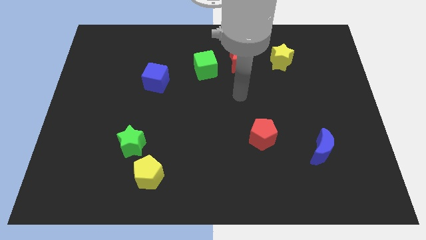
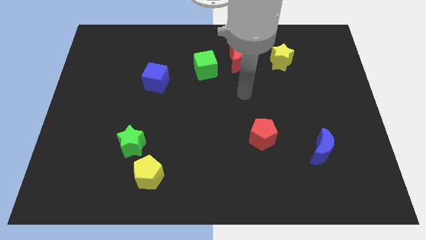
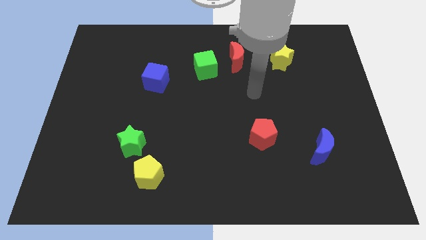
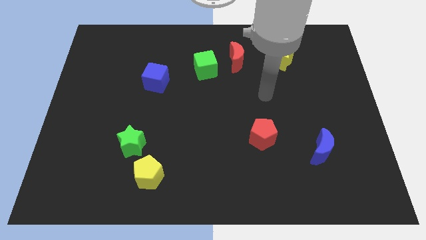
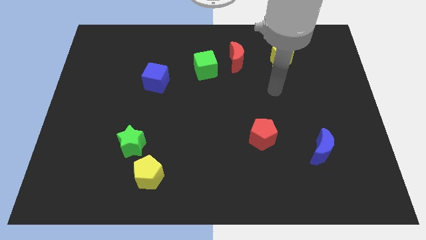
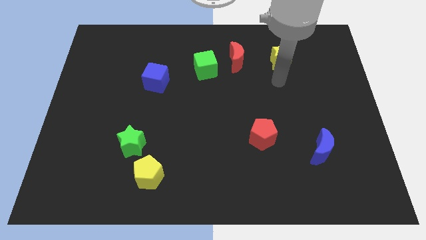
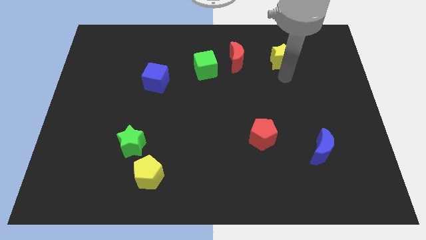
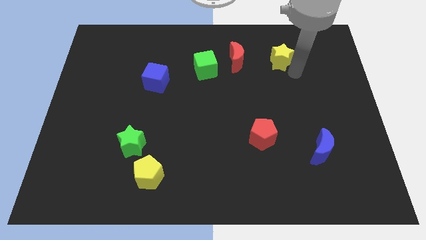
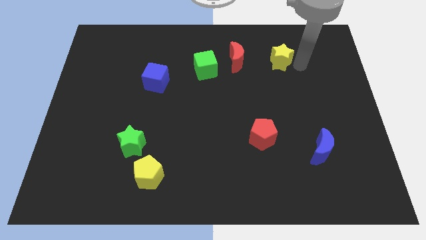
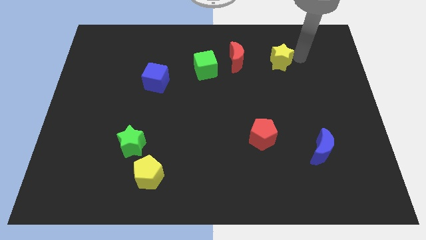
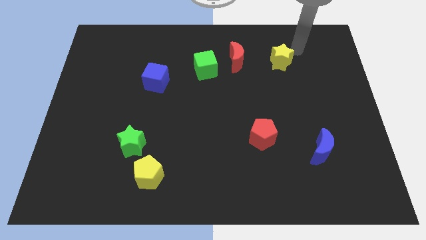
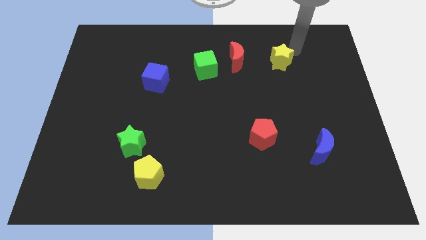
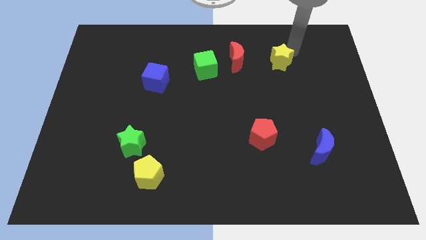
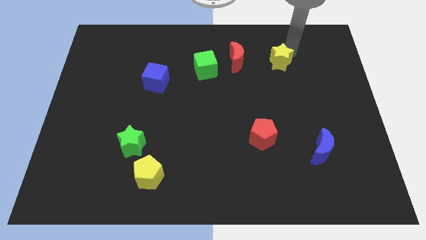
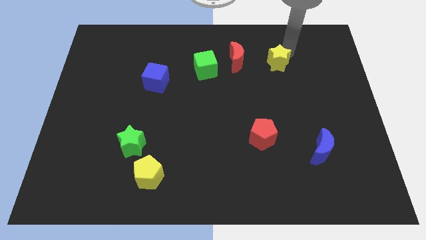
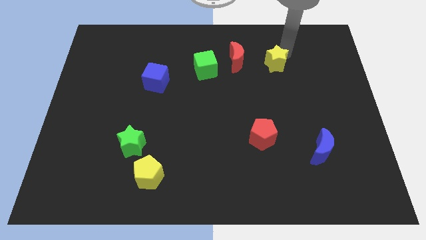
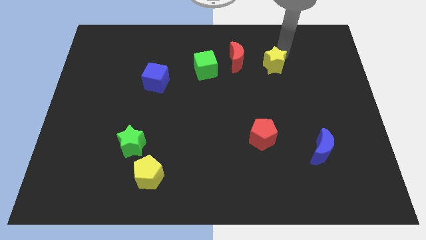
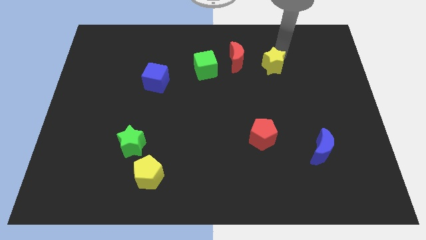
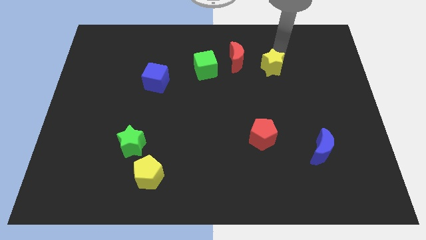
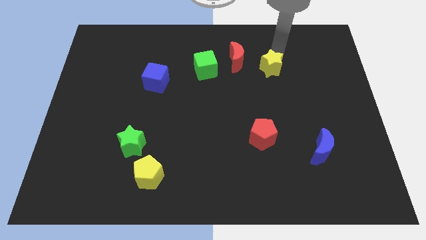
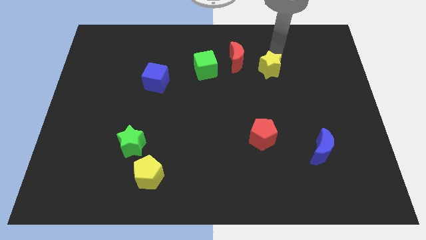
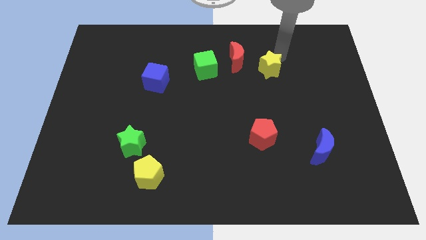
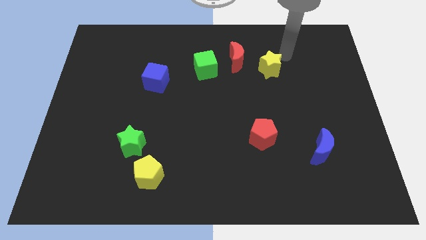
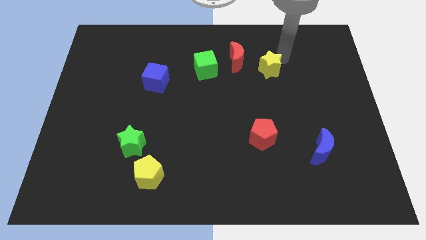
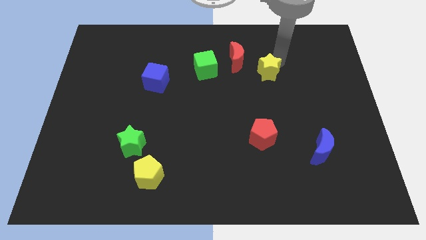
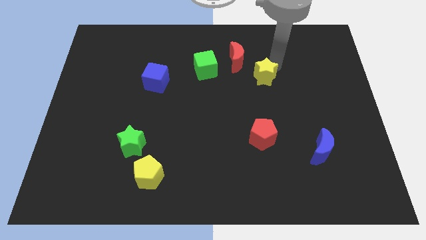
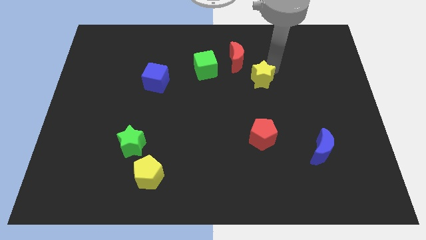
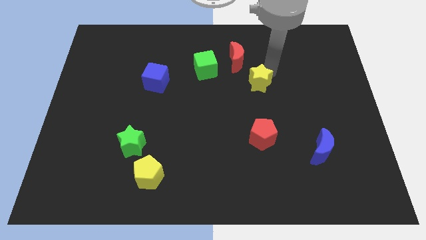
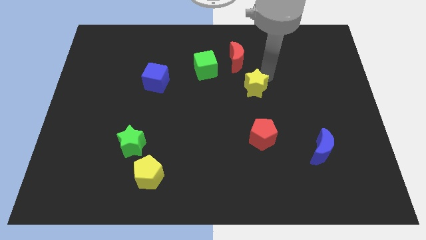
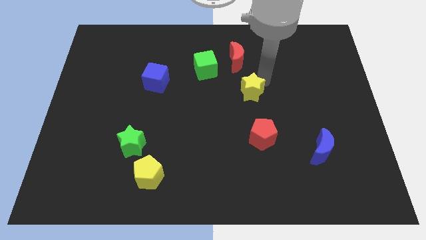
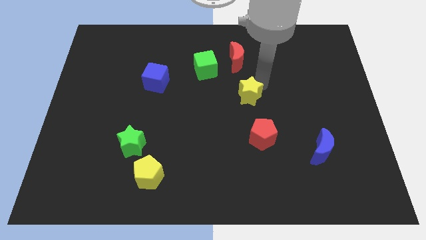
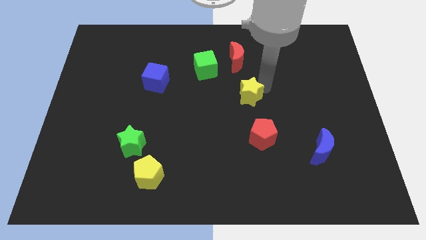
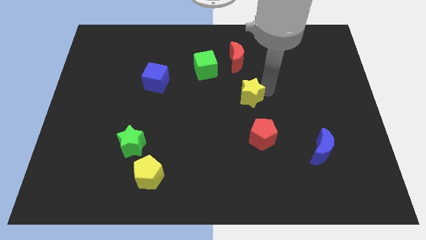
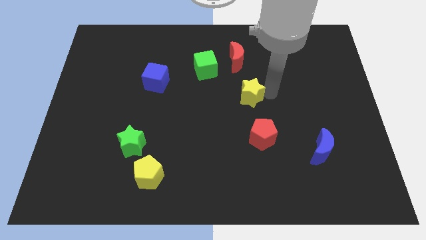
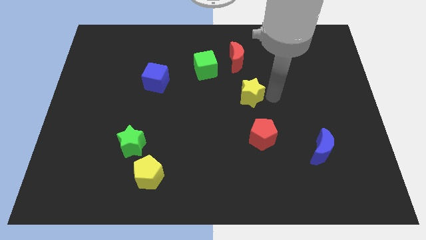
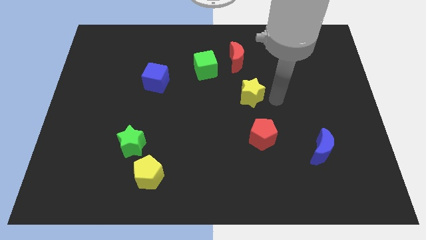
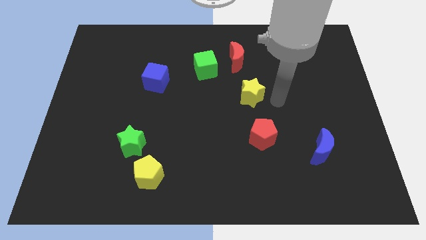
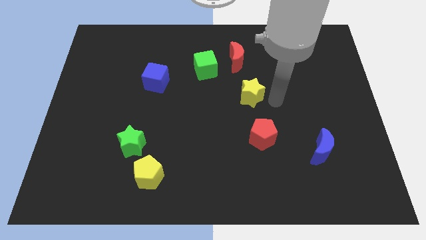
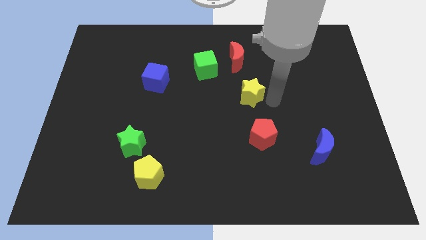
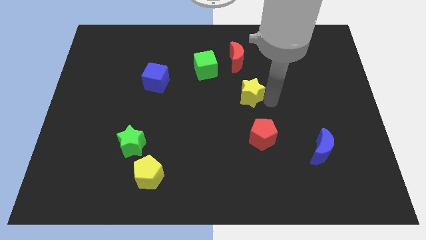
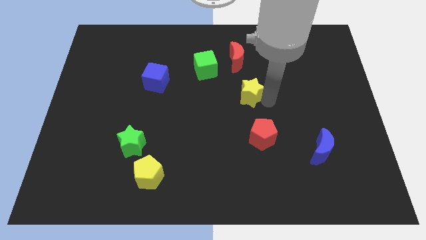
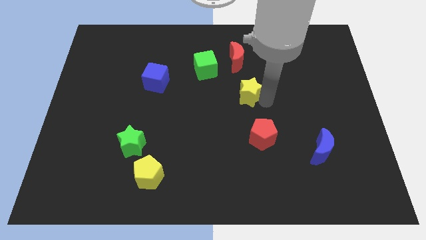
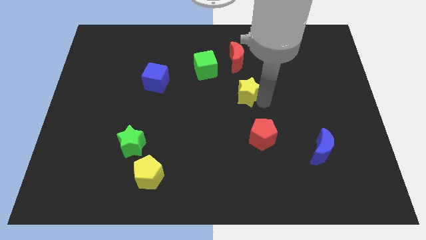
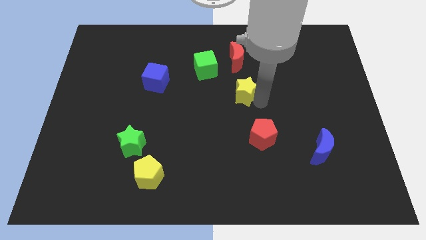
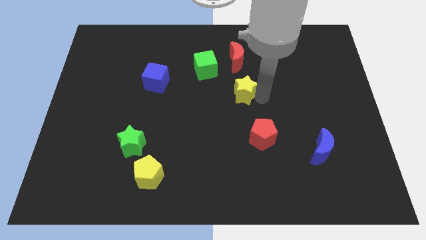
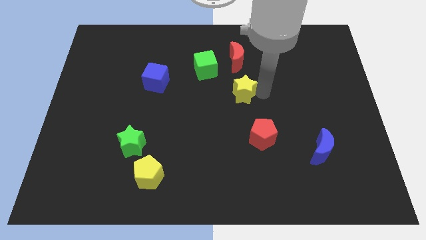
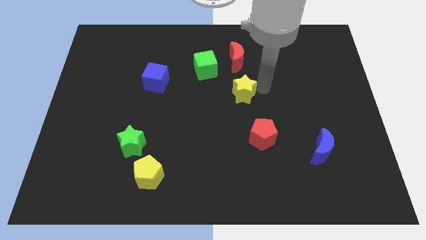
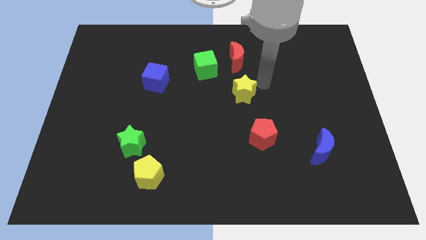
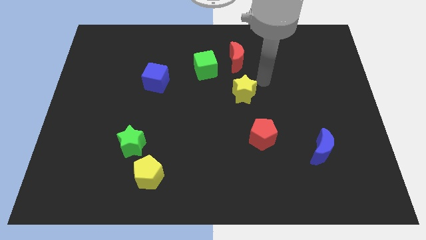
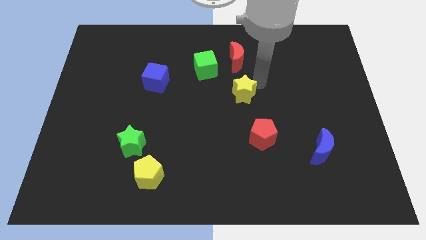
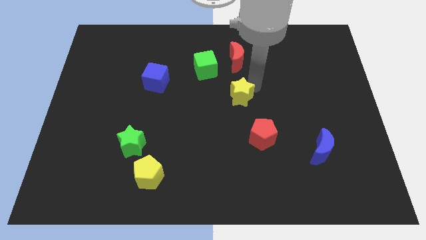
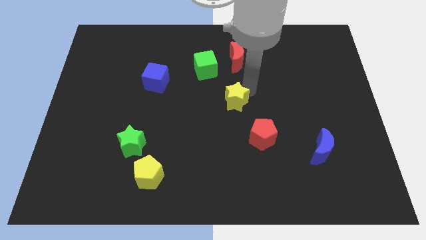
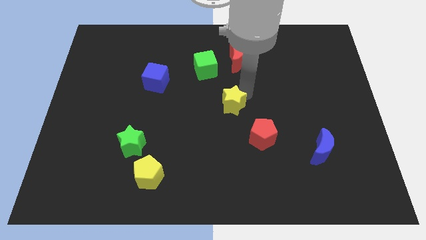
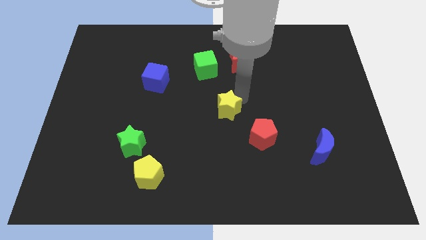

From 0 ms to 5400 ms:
move the yellow star diagonally down and to the left

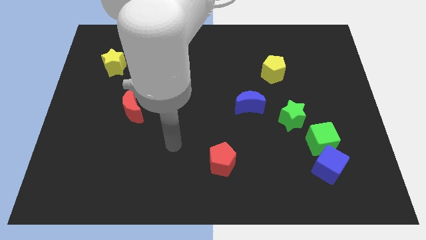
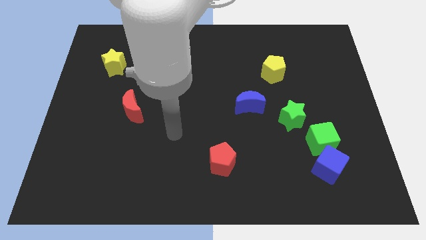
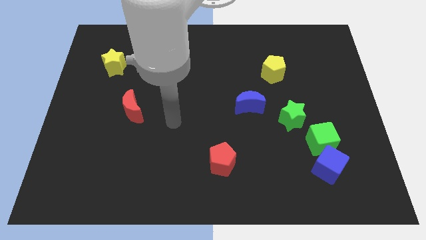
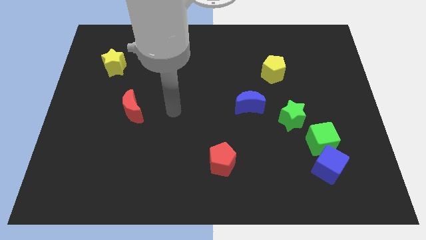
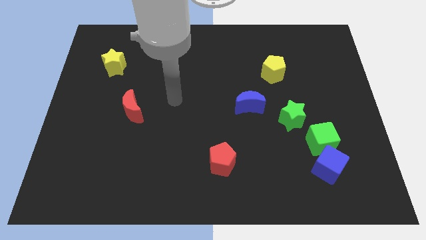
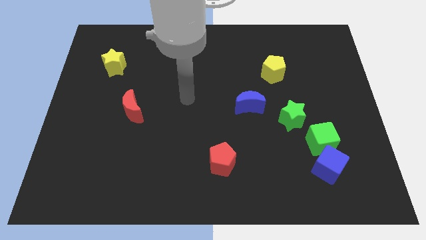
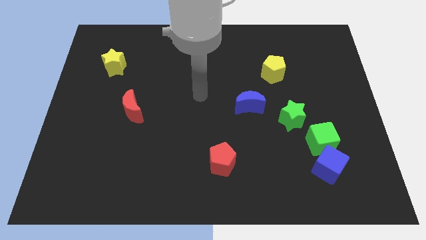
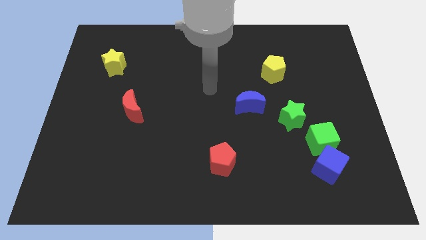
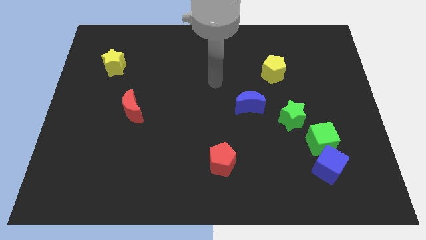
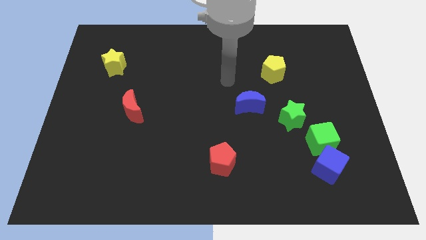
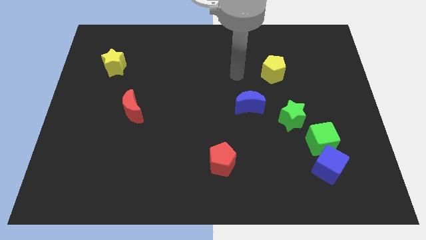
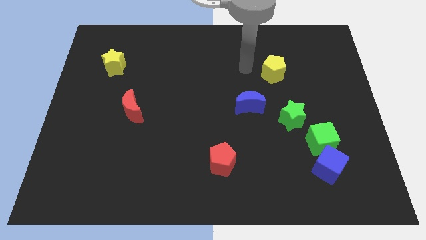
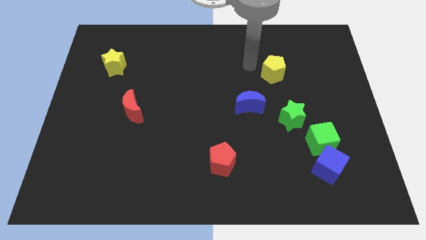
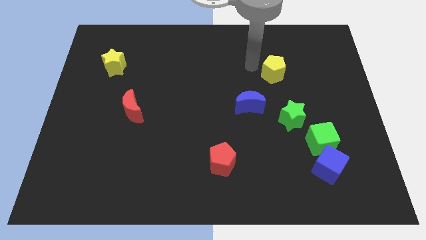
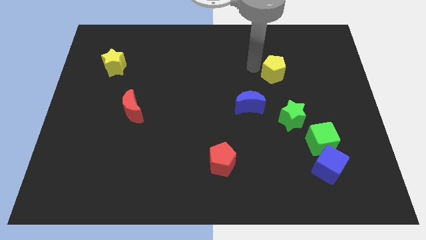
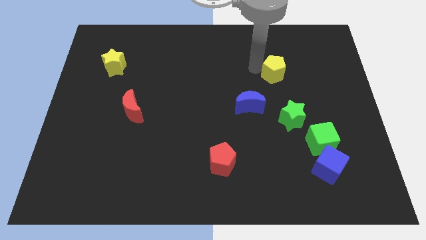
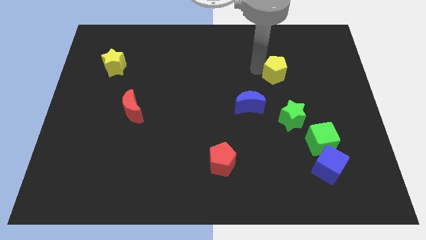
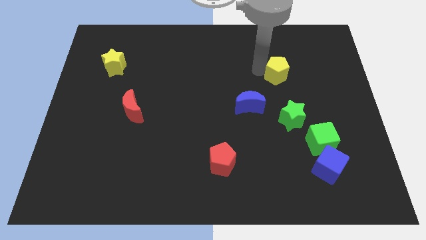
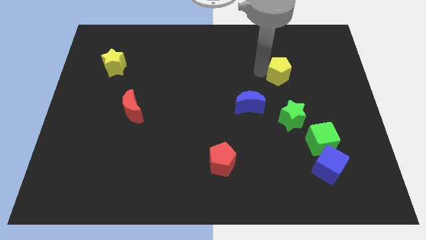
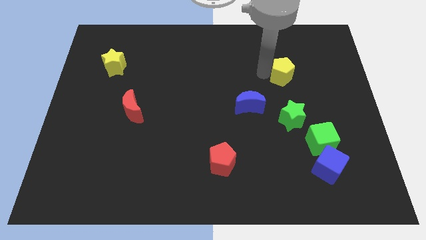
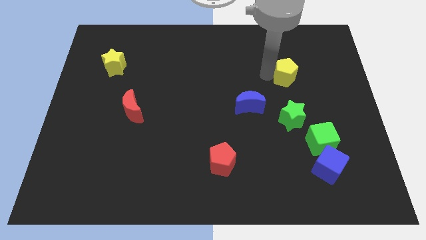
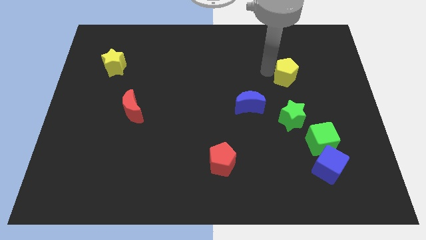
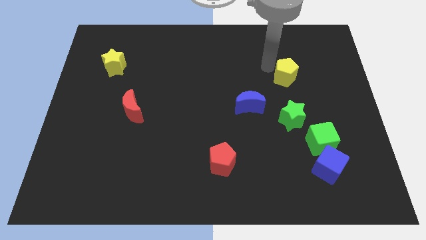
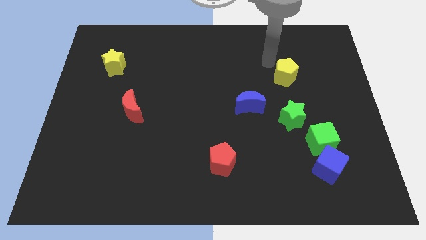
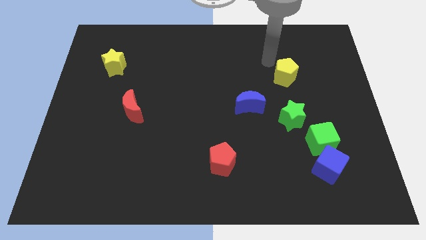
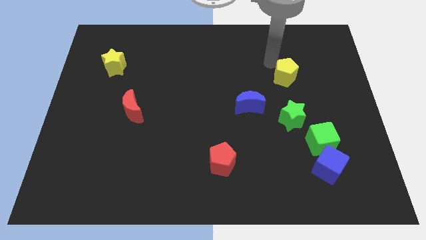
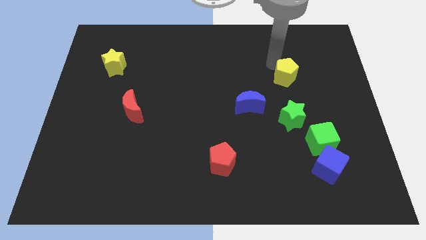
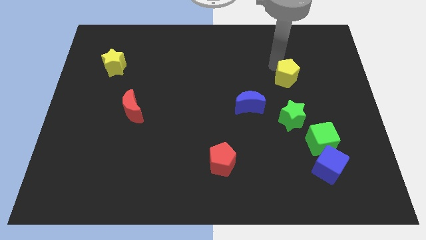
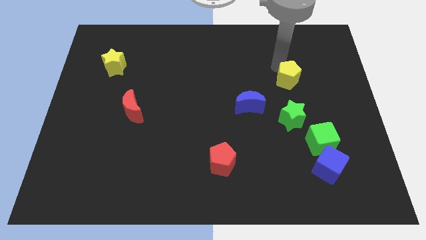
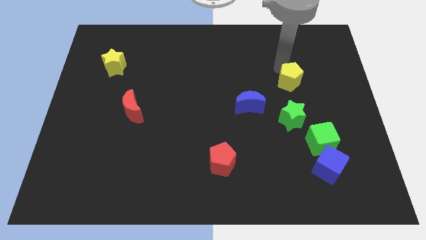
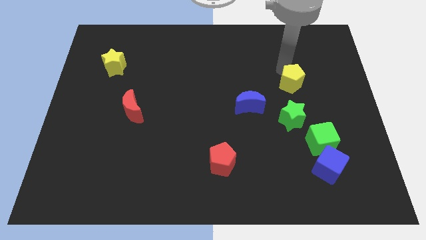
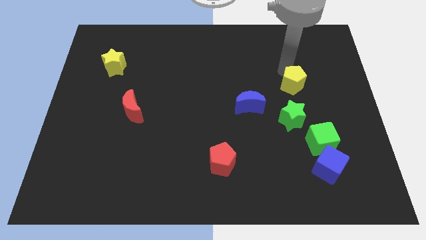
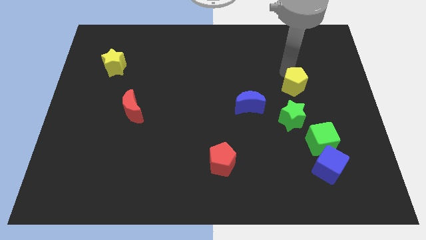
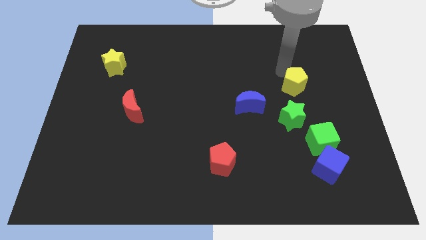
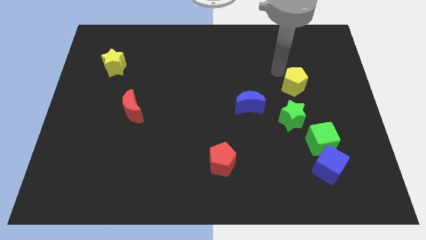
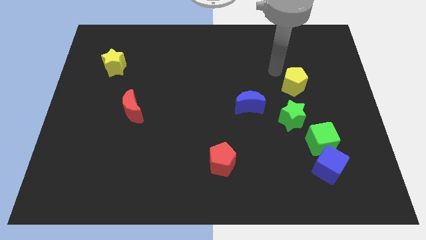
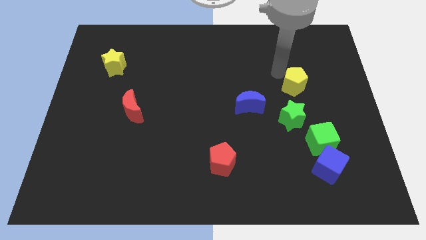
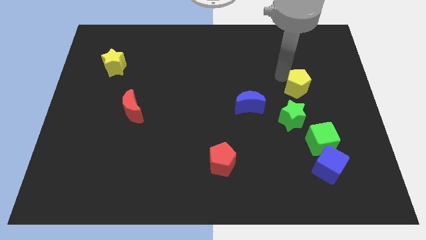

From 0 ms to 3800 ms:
push the yellow pentagon diagonally down and right a little bit
